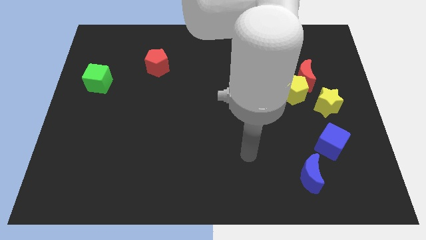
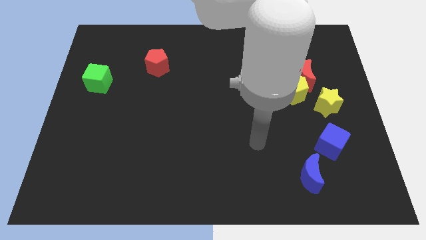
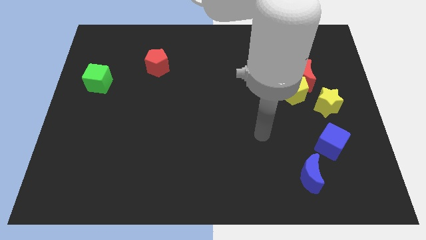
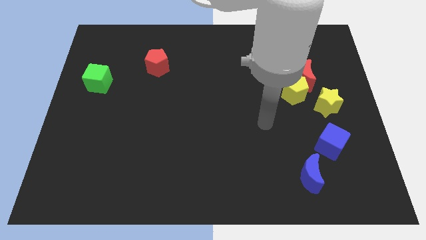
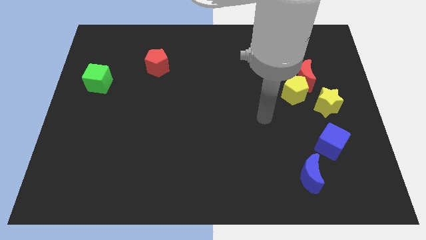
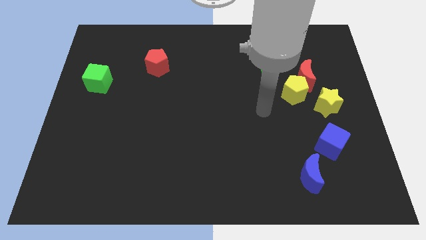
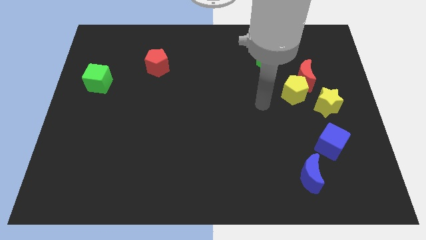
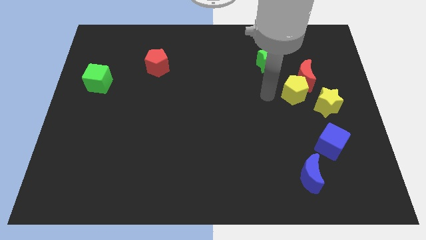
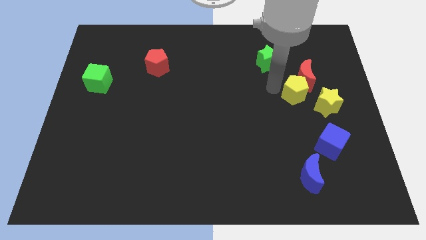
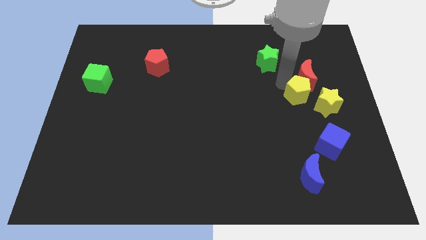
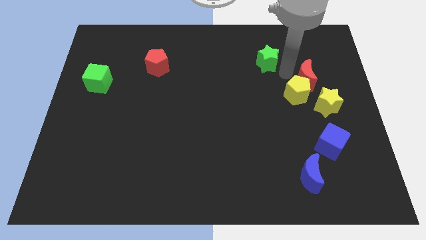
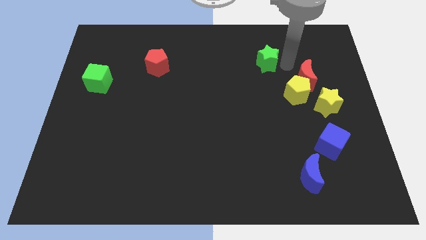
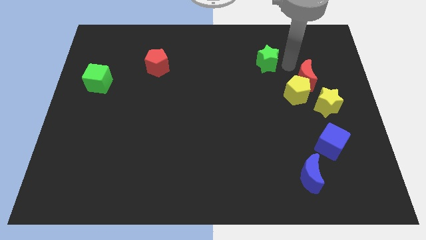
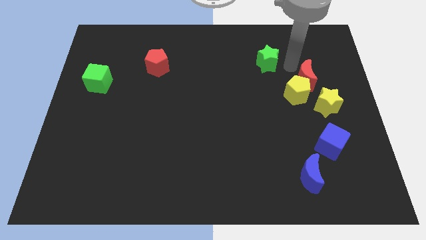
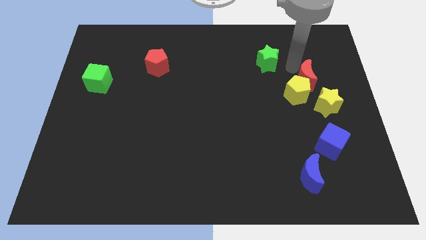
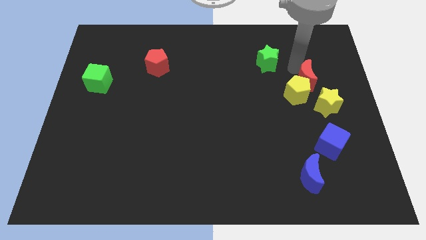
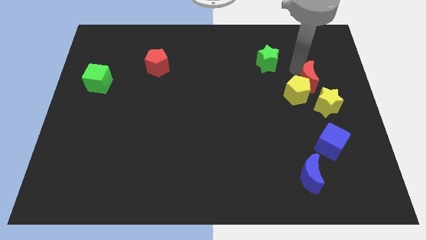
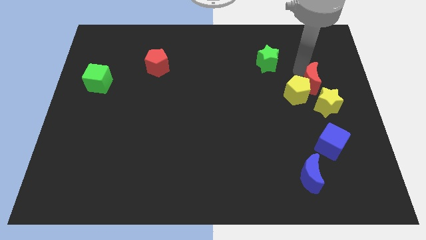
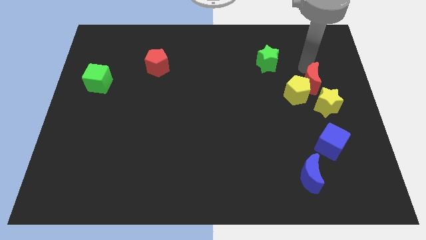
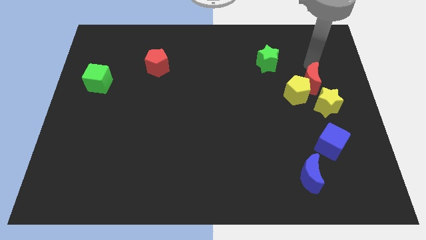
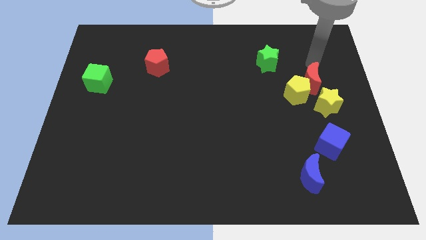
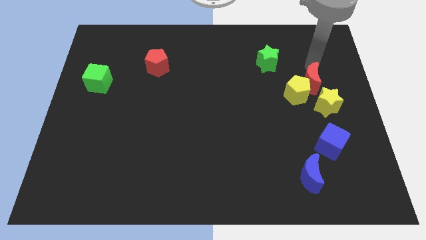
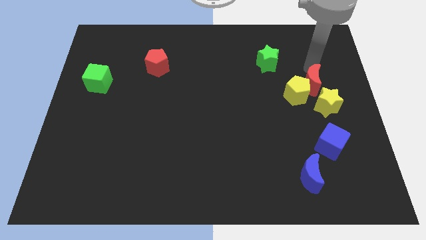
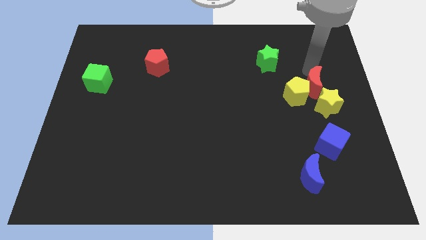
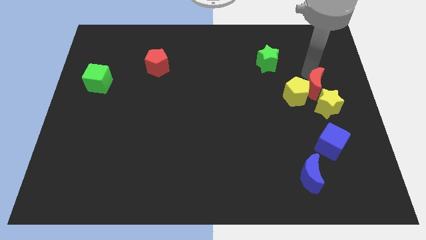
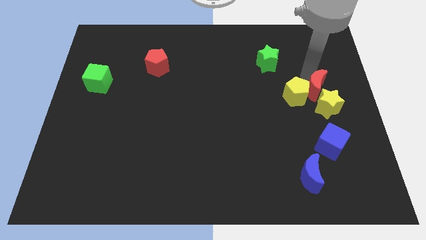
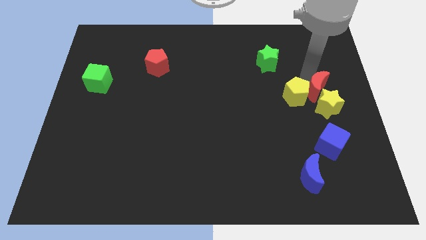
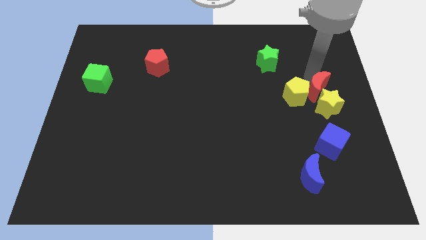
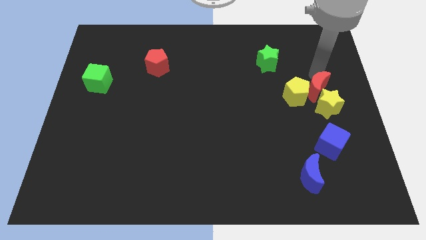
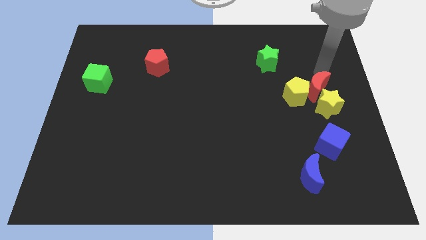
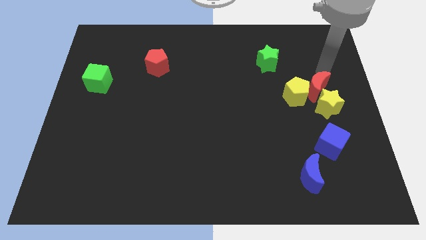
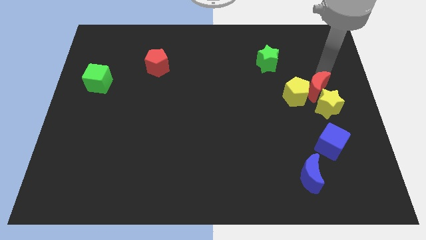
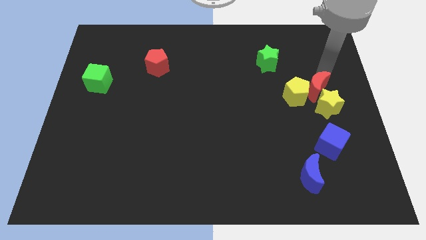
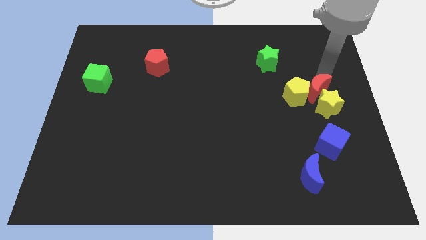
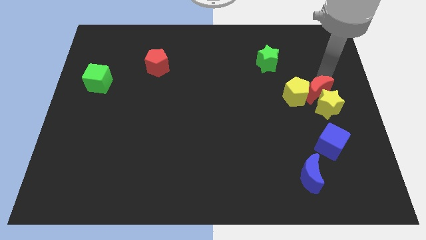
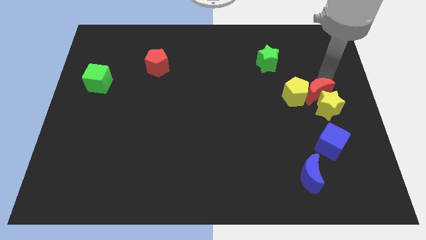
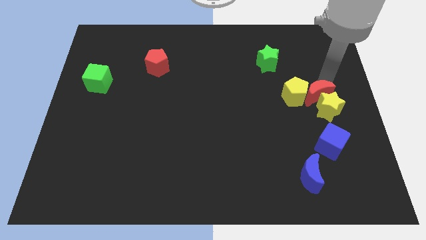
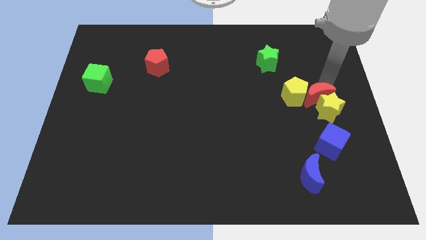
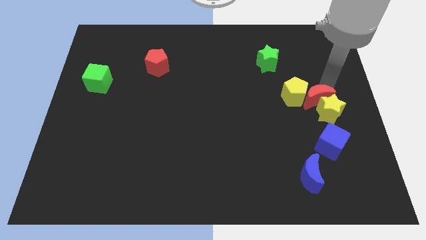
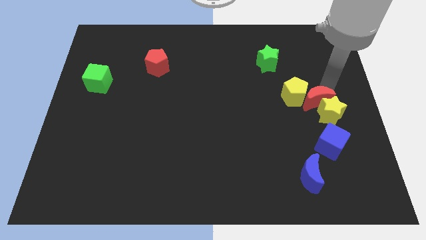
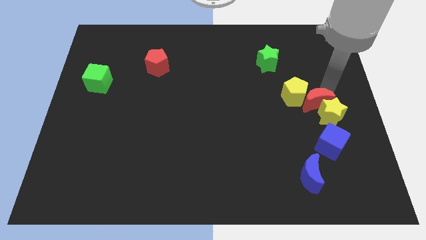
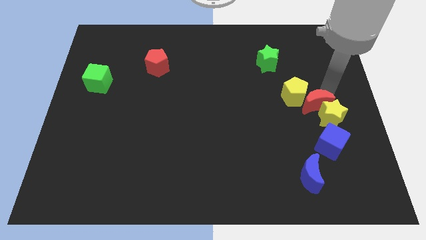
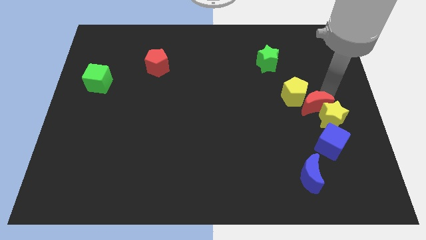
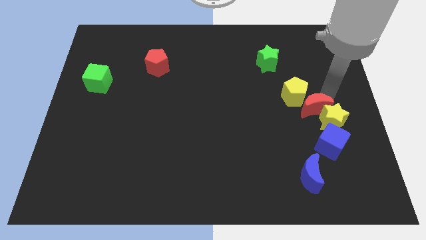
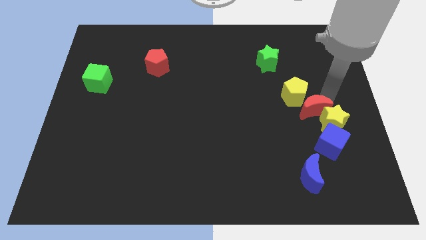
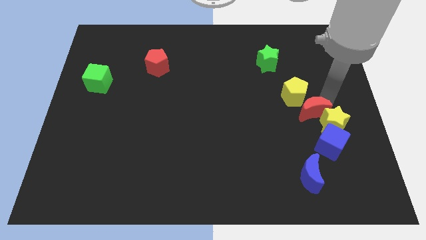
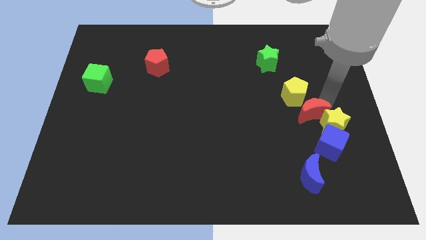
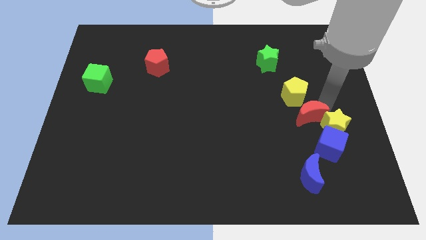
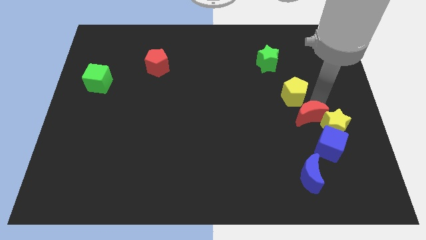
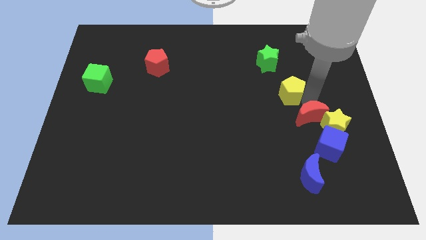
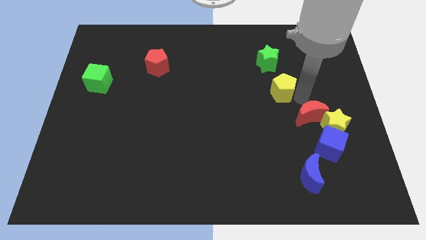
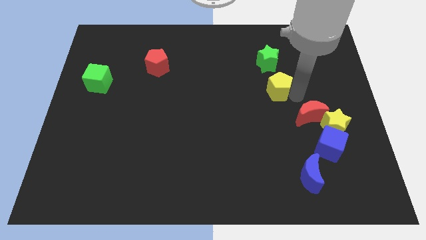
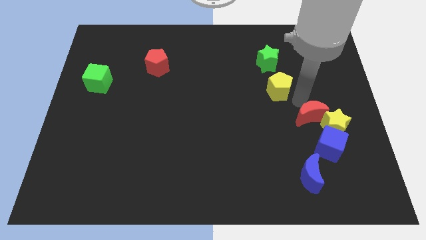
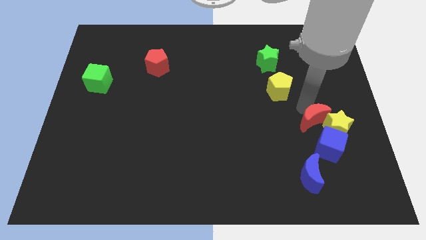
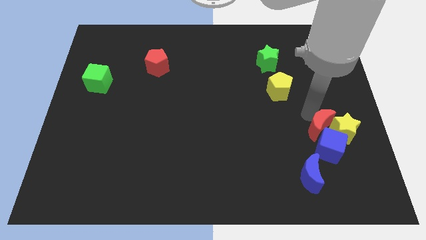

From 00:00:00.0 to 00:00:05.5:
move the red moon close to the blue cube

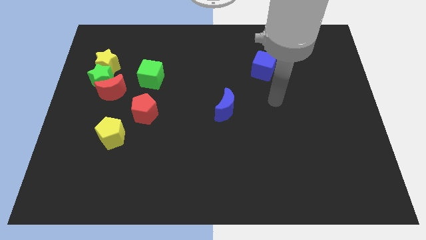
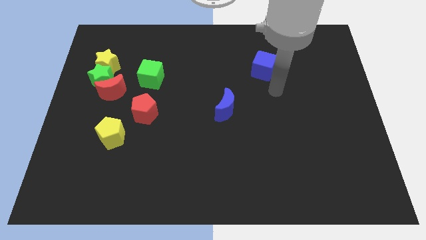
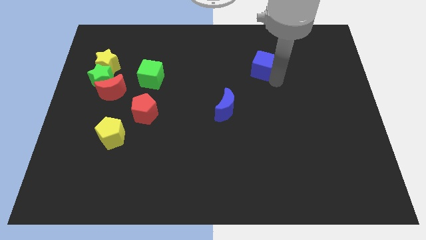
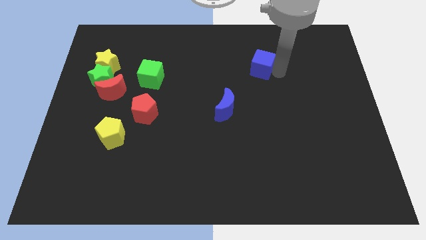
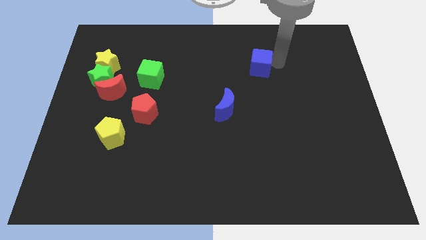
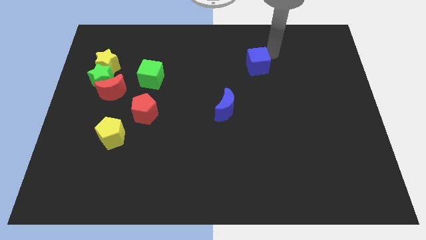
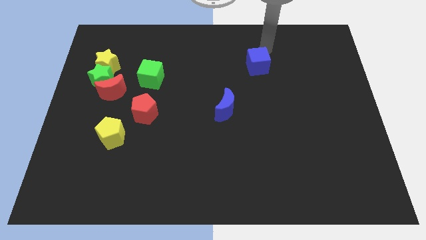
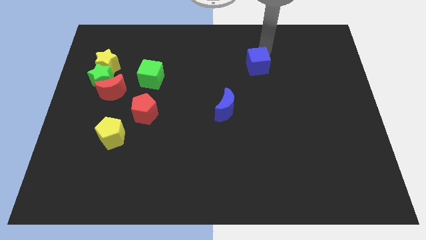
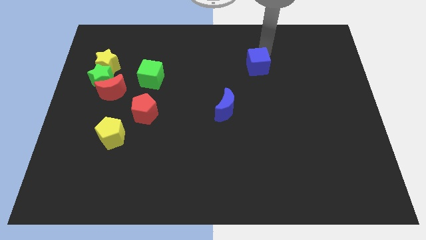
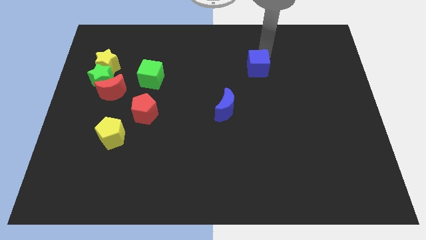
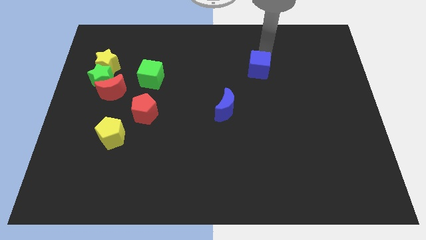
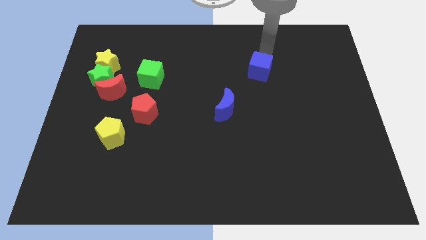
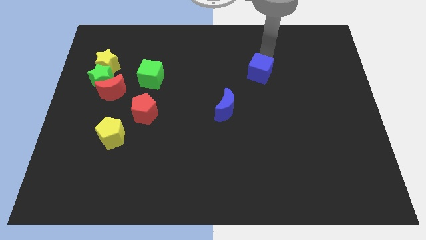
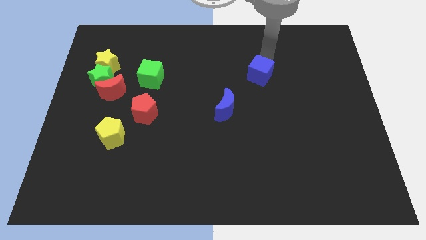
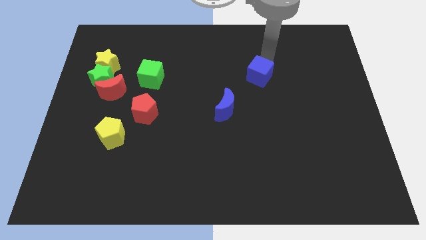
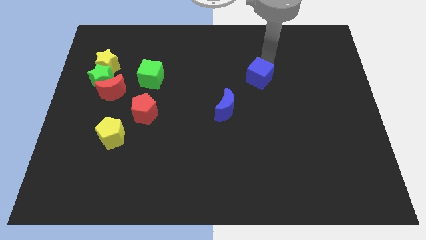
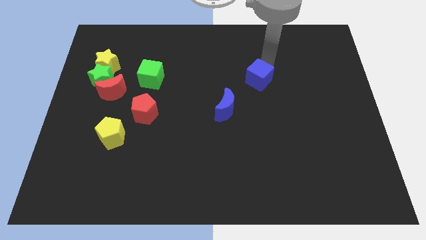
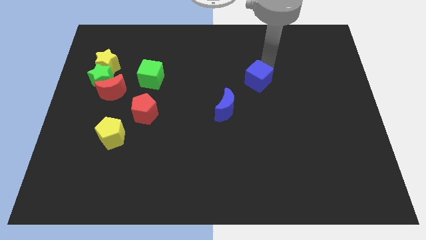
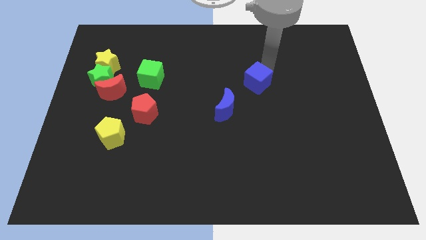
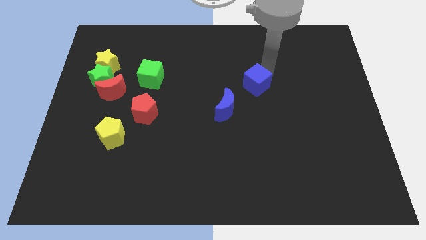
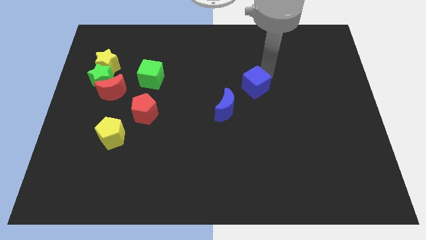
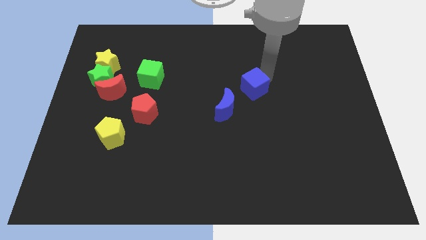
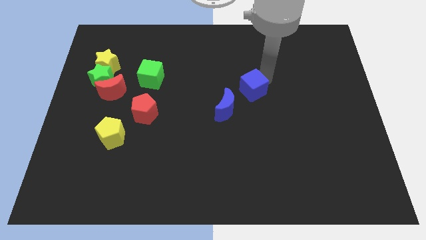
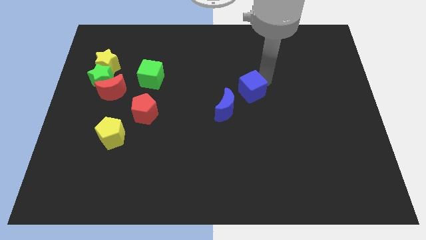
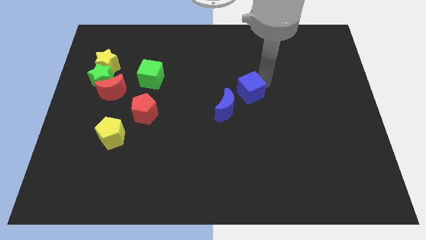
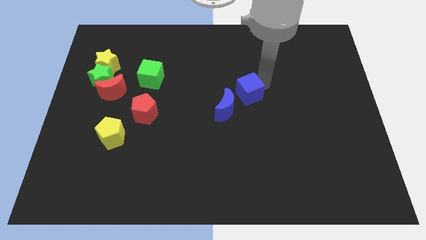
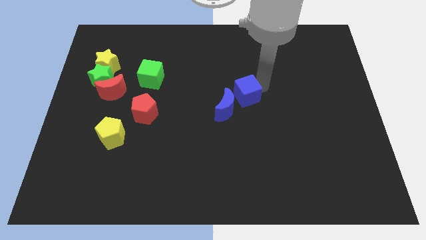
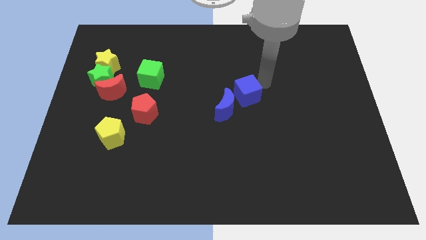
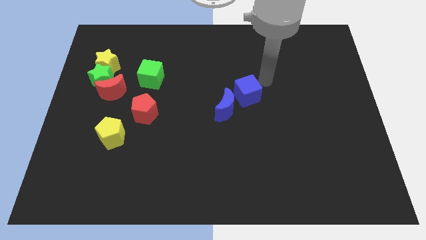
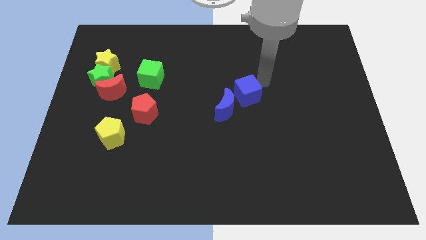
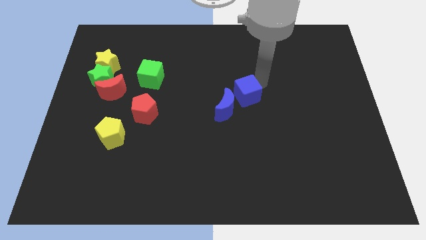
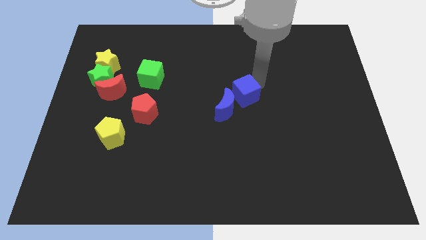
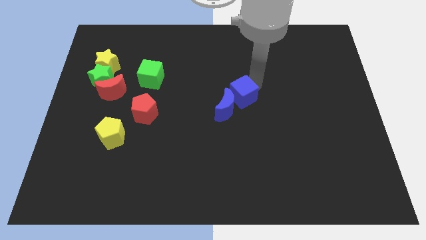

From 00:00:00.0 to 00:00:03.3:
put the blue cube next to the blue moon
